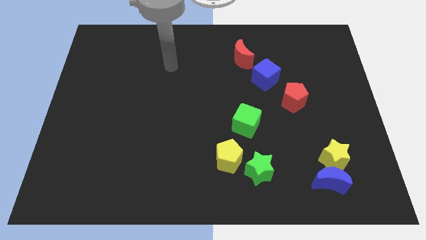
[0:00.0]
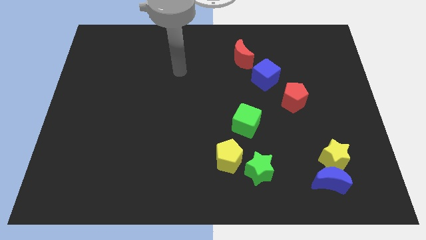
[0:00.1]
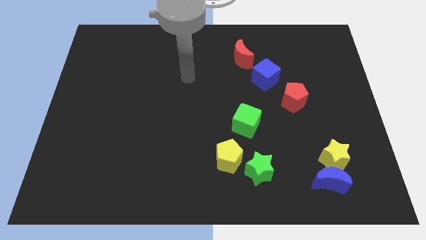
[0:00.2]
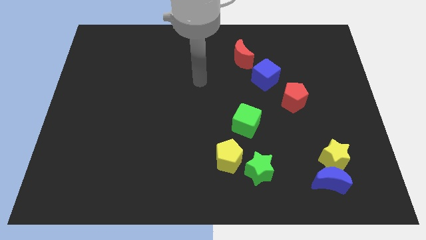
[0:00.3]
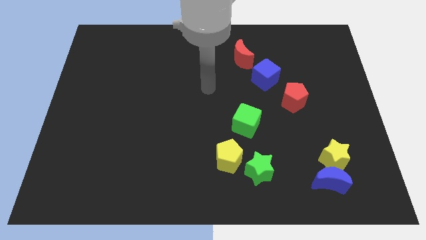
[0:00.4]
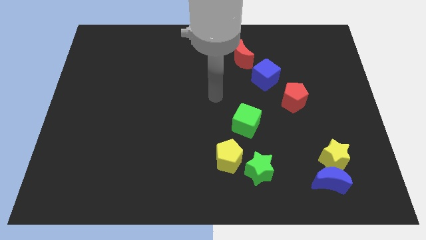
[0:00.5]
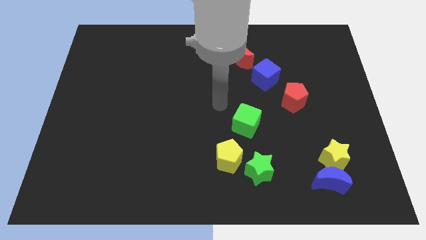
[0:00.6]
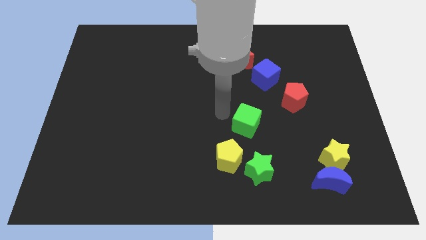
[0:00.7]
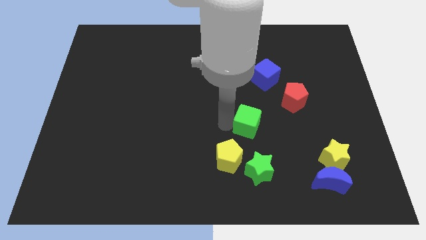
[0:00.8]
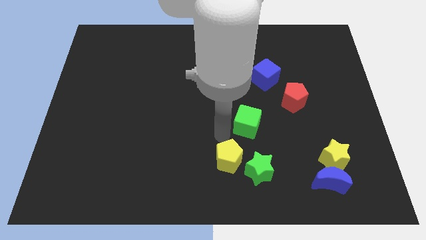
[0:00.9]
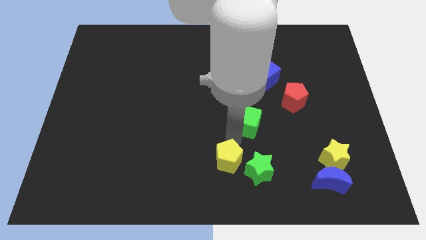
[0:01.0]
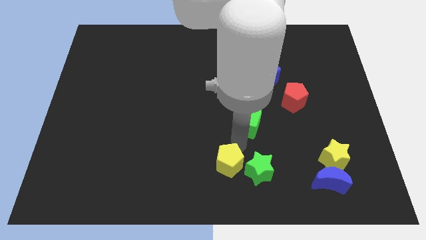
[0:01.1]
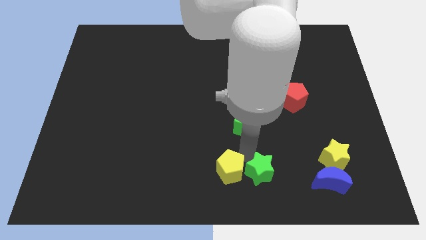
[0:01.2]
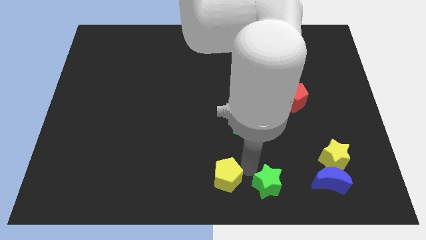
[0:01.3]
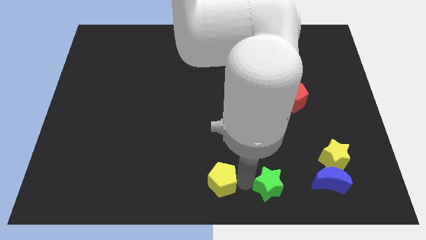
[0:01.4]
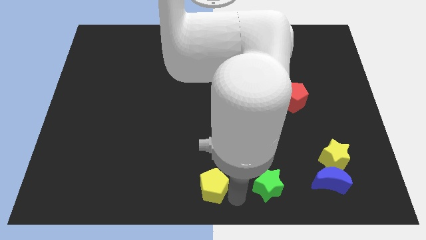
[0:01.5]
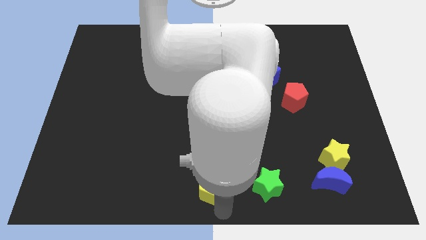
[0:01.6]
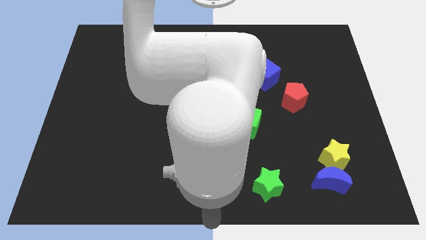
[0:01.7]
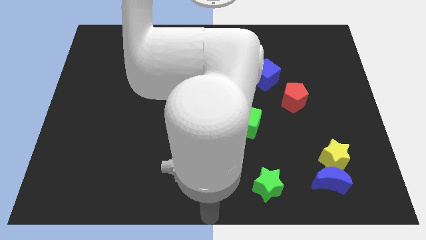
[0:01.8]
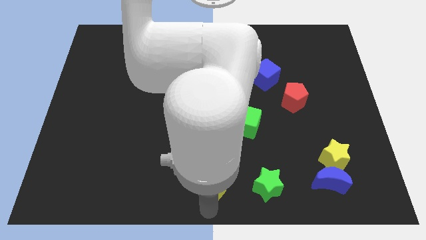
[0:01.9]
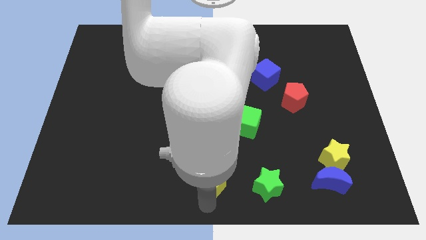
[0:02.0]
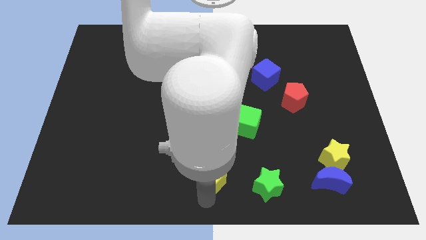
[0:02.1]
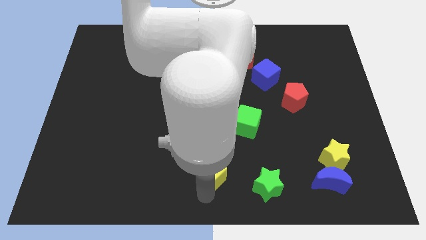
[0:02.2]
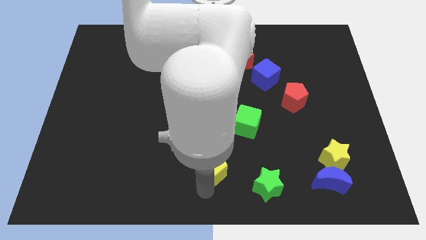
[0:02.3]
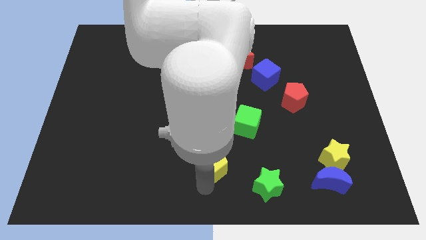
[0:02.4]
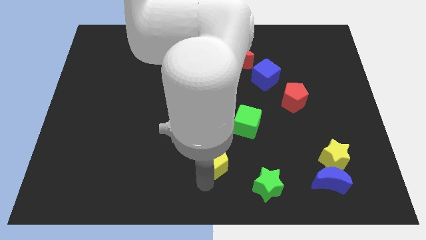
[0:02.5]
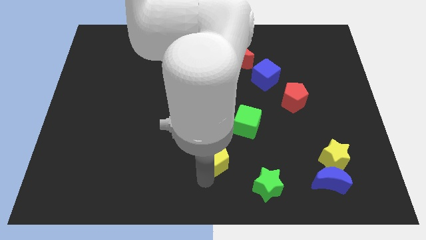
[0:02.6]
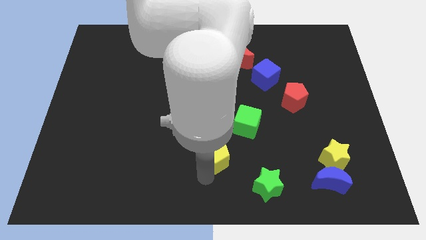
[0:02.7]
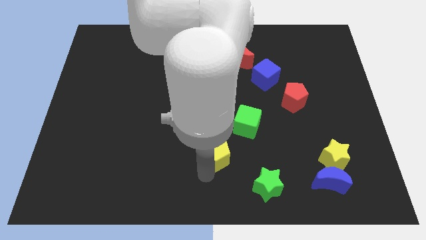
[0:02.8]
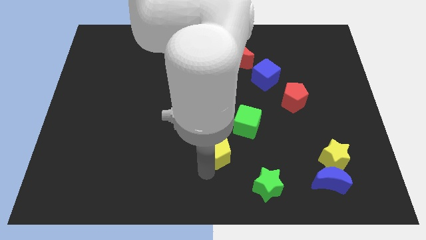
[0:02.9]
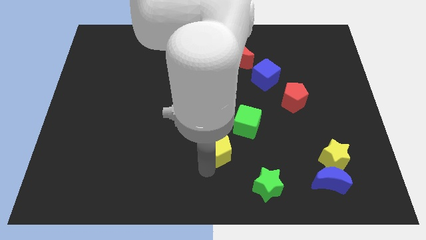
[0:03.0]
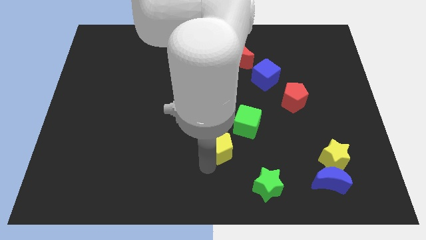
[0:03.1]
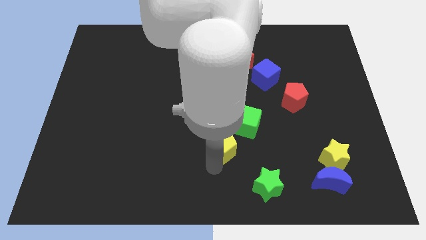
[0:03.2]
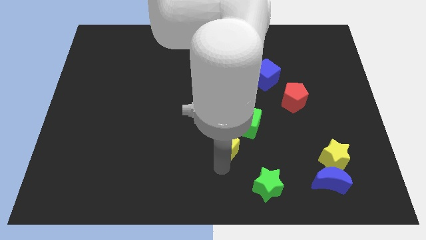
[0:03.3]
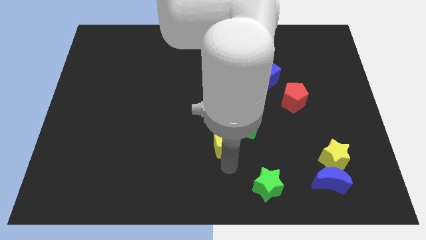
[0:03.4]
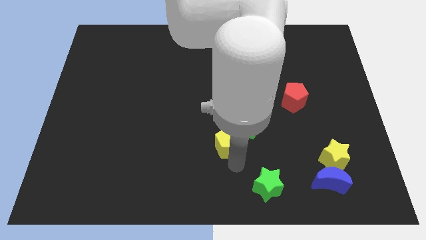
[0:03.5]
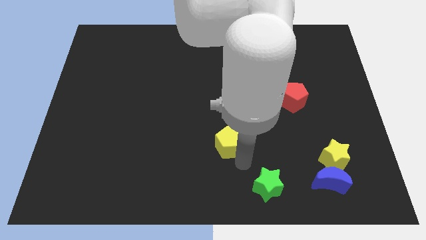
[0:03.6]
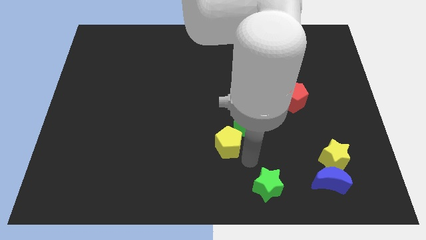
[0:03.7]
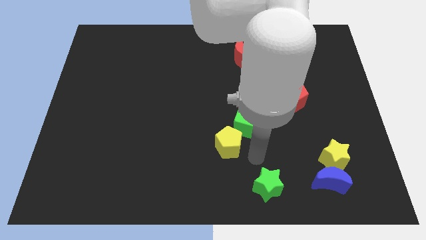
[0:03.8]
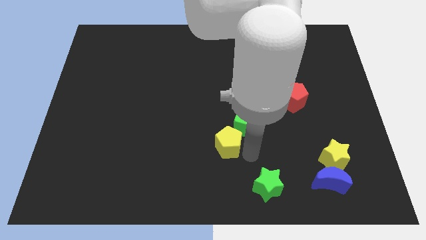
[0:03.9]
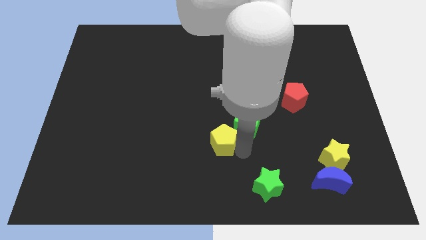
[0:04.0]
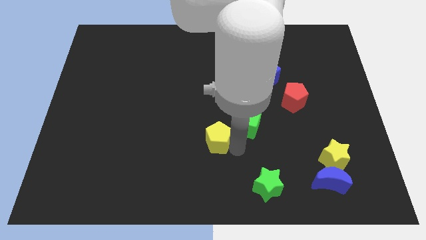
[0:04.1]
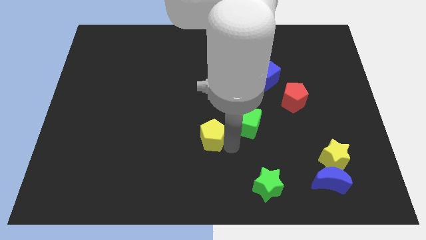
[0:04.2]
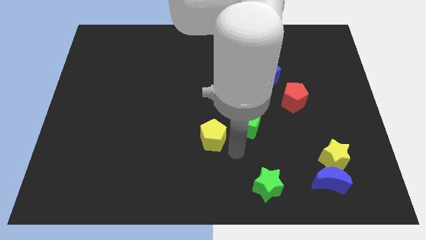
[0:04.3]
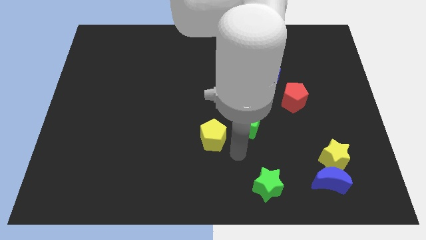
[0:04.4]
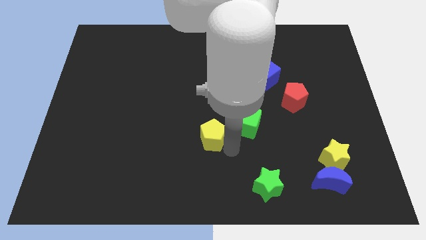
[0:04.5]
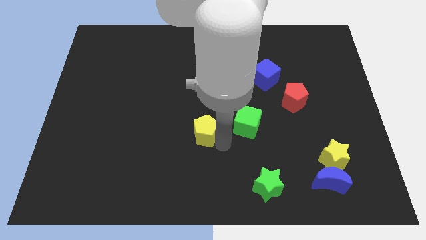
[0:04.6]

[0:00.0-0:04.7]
slightly slide the yellow pentagon upwards and then left

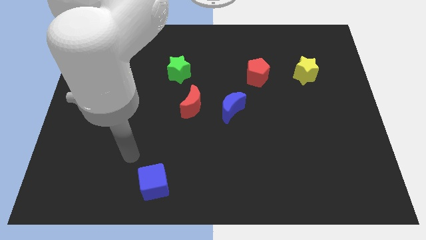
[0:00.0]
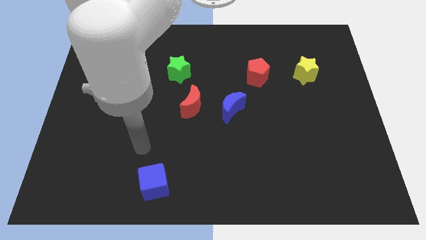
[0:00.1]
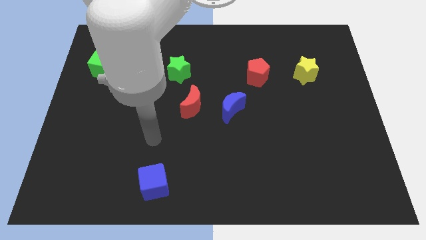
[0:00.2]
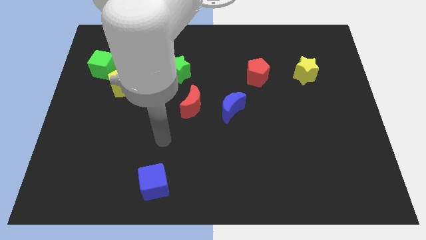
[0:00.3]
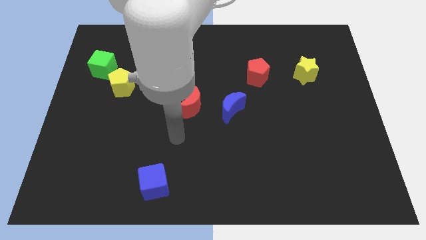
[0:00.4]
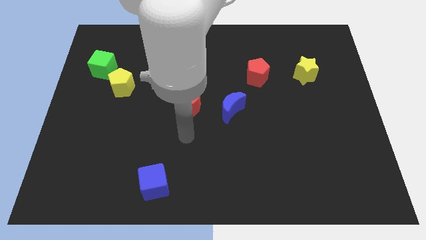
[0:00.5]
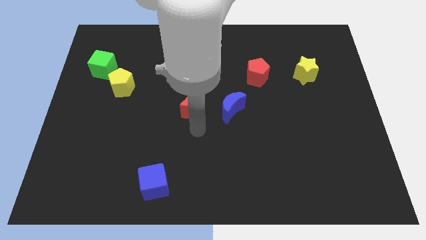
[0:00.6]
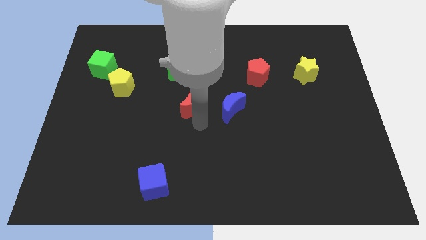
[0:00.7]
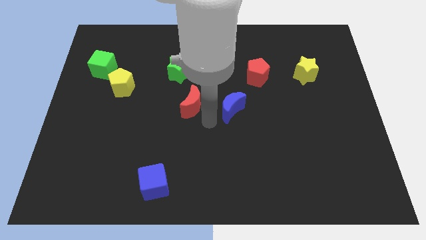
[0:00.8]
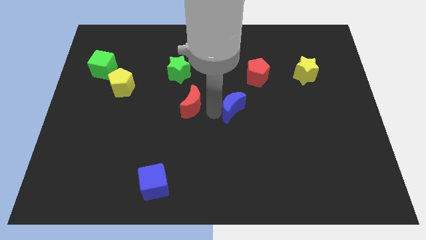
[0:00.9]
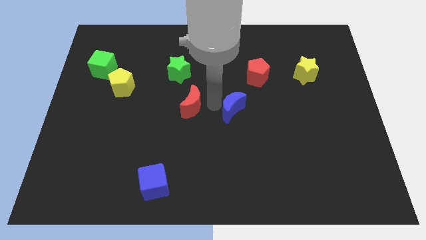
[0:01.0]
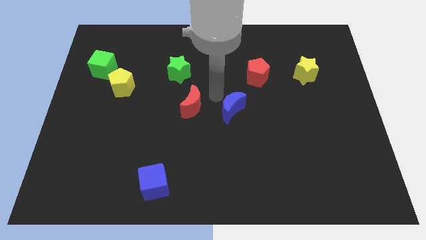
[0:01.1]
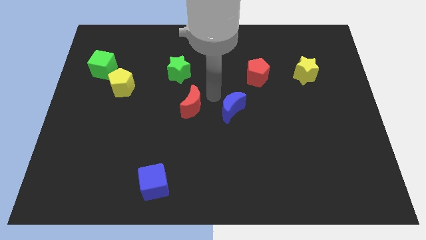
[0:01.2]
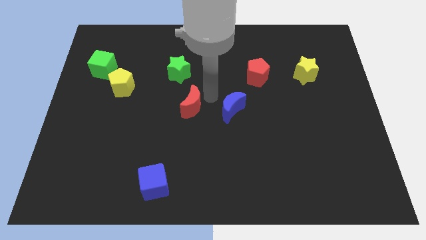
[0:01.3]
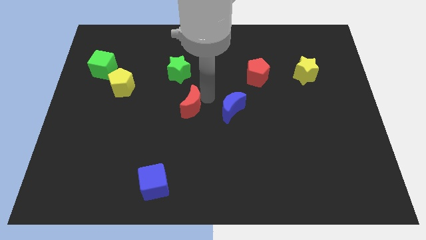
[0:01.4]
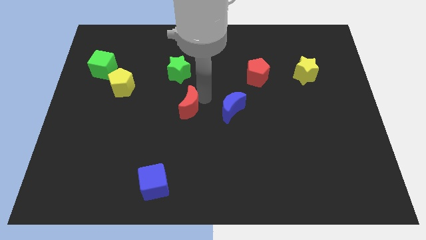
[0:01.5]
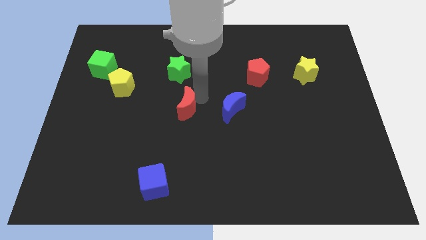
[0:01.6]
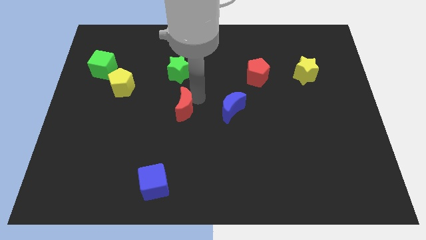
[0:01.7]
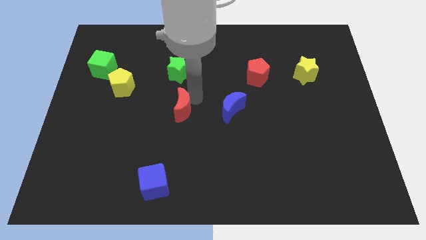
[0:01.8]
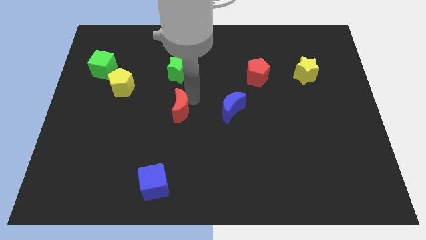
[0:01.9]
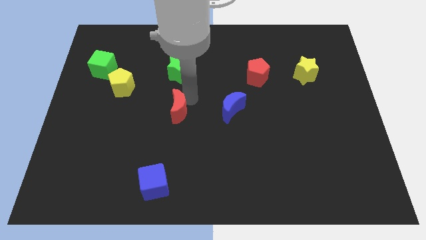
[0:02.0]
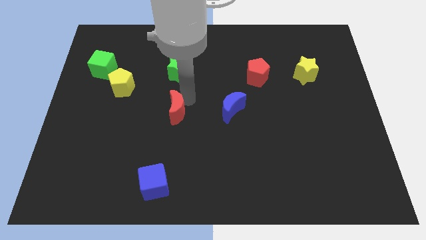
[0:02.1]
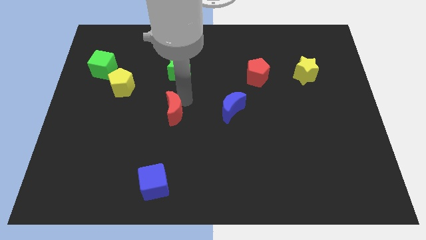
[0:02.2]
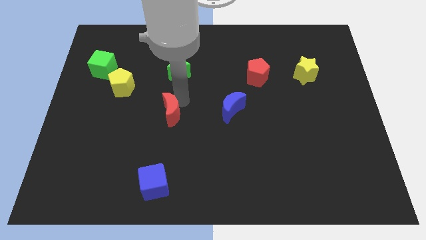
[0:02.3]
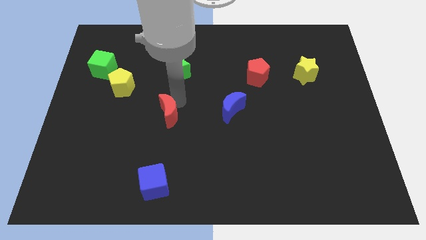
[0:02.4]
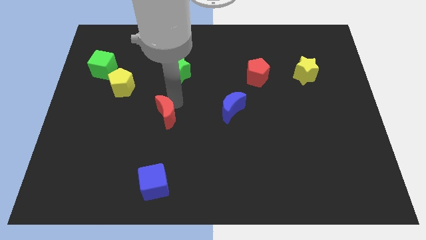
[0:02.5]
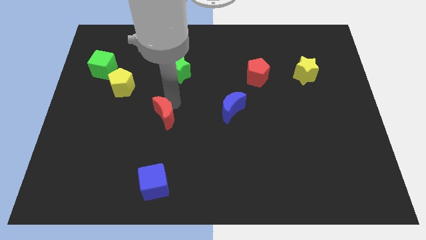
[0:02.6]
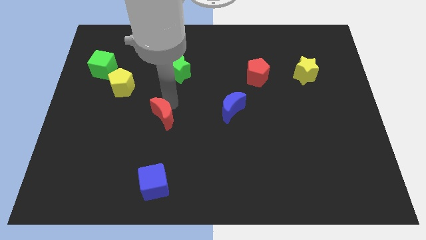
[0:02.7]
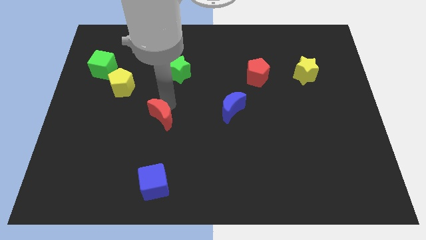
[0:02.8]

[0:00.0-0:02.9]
slightly move the red moon down and to the left diagonally

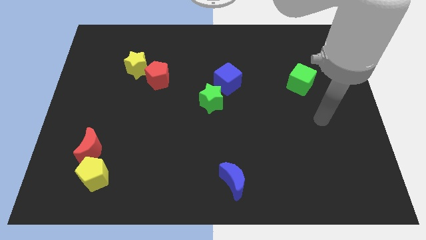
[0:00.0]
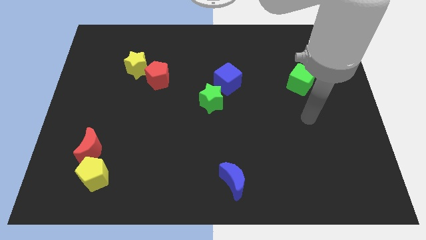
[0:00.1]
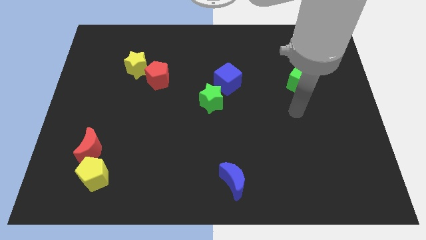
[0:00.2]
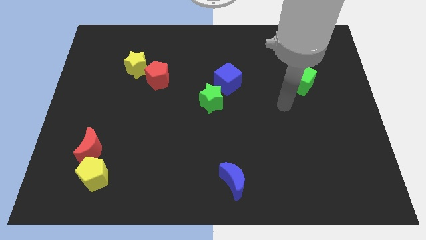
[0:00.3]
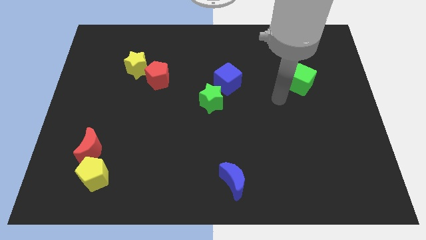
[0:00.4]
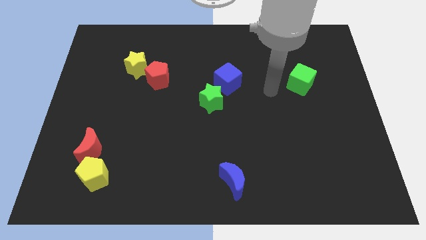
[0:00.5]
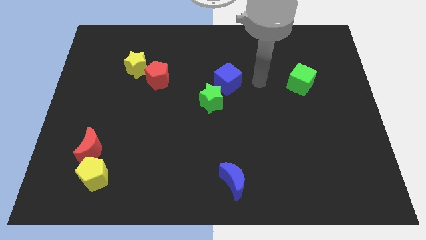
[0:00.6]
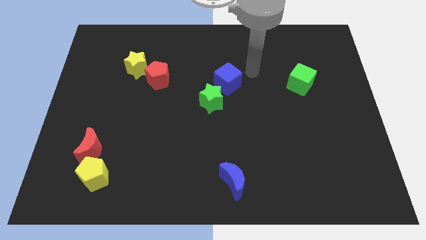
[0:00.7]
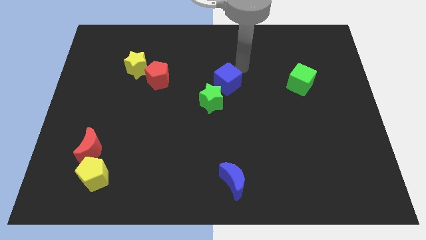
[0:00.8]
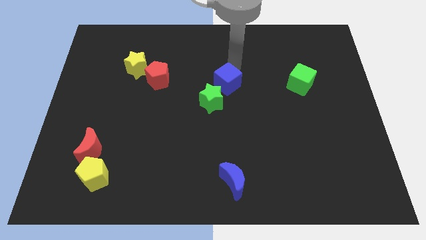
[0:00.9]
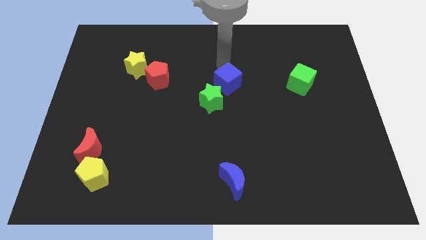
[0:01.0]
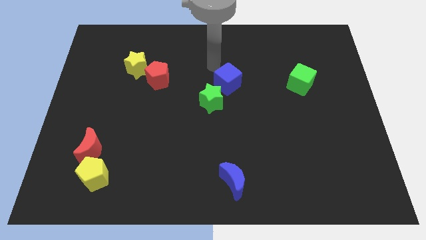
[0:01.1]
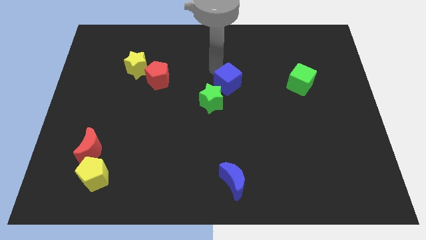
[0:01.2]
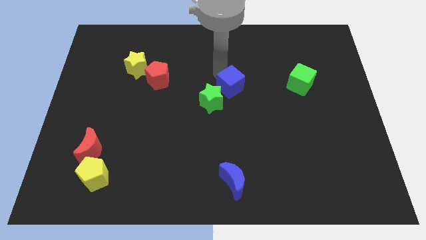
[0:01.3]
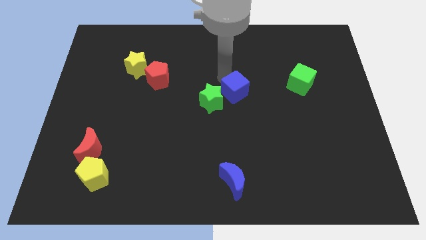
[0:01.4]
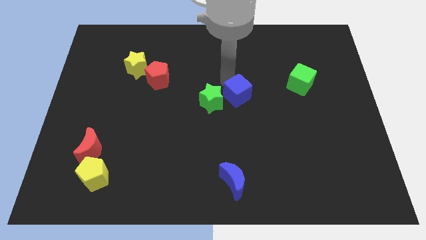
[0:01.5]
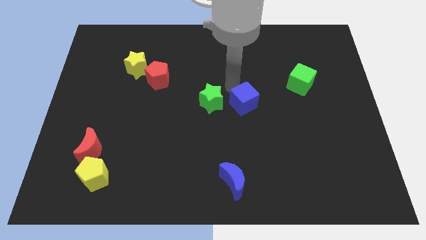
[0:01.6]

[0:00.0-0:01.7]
move the blue cube downwards and then to the right somewhat
